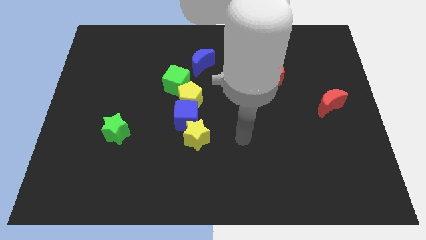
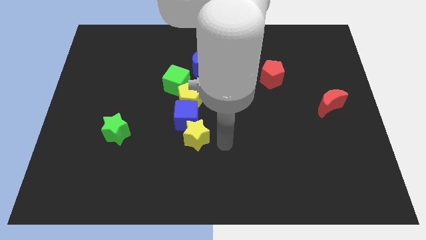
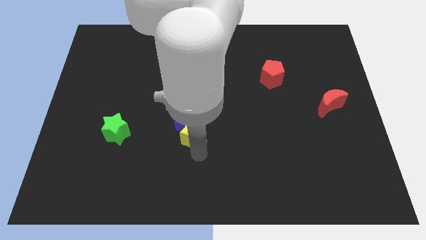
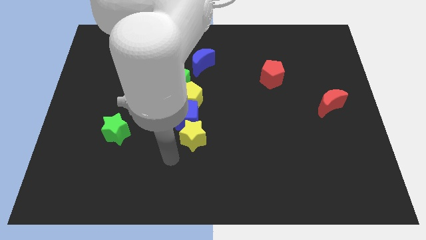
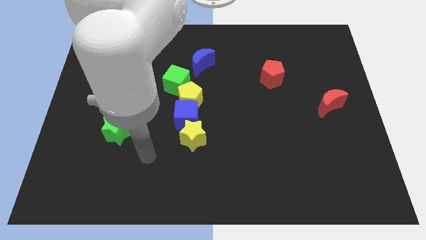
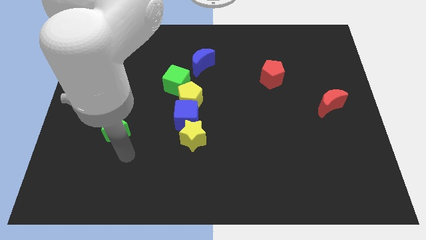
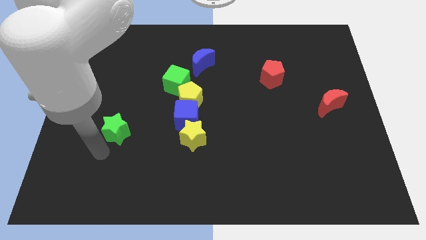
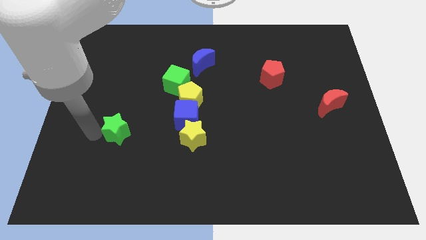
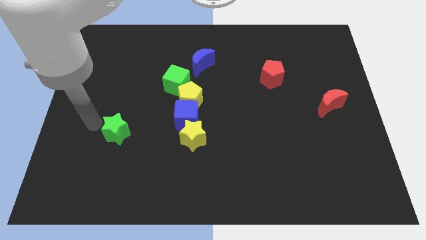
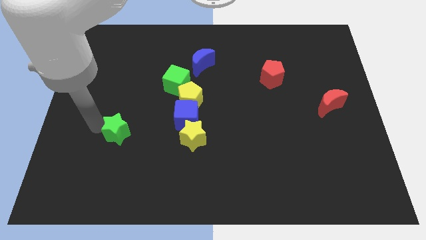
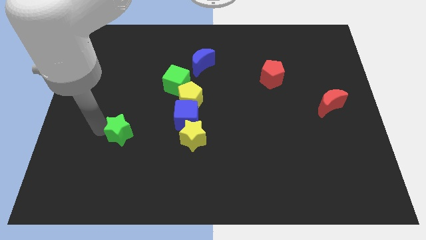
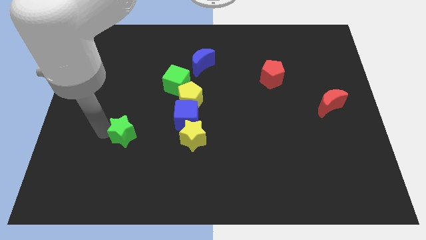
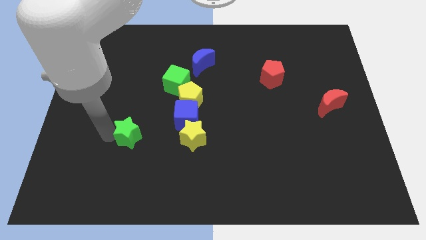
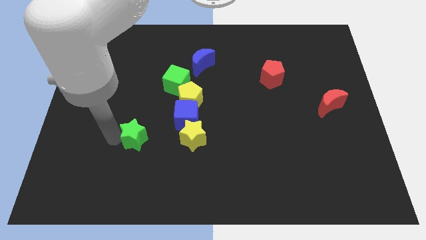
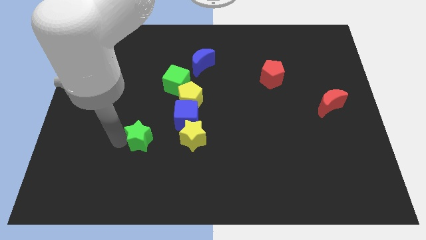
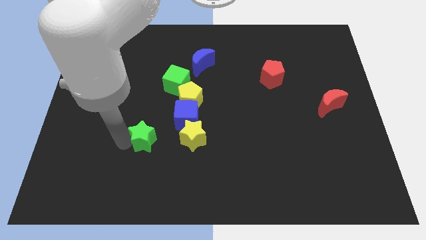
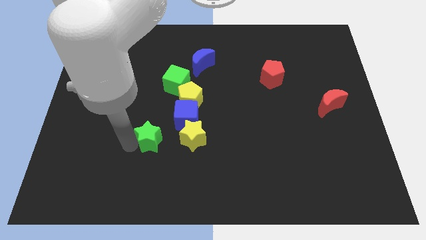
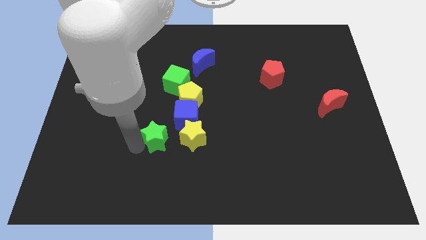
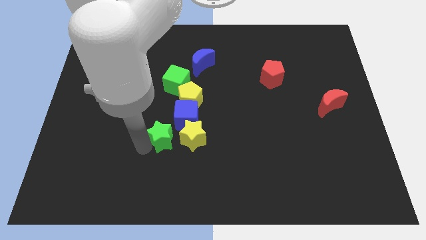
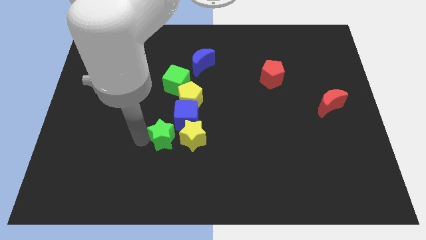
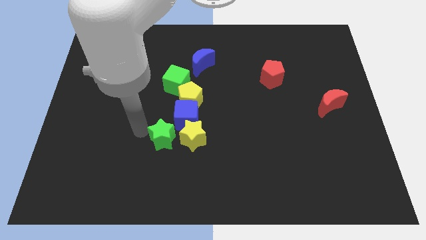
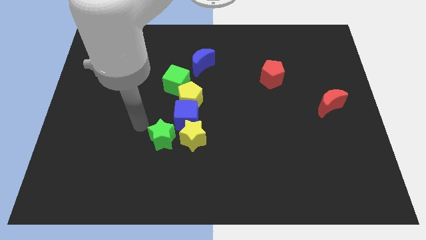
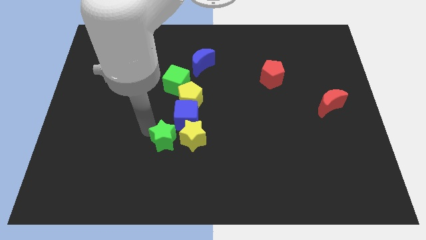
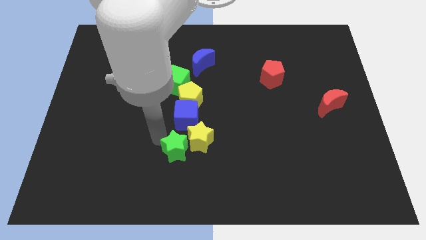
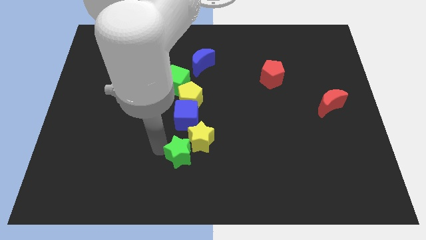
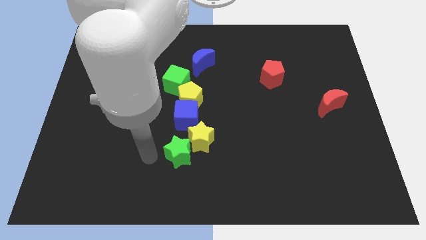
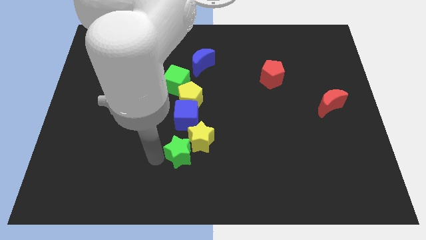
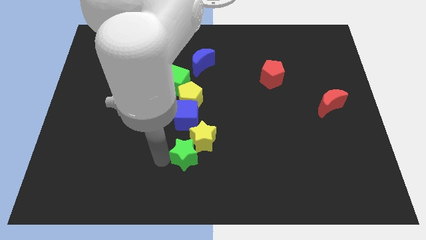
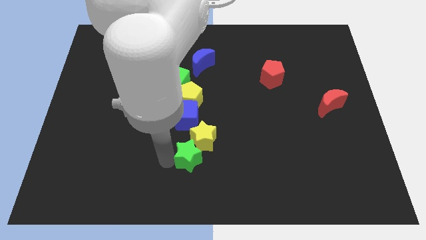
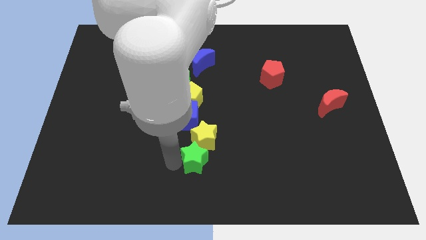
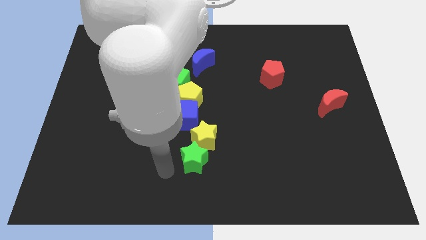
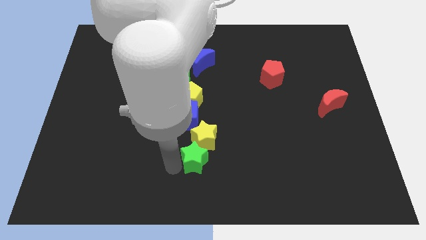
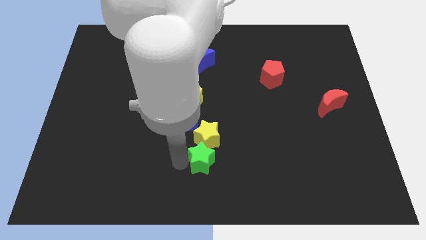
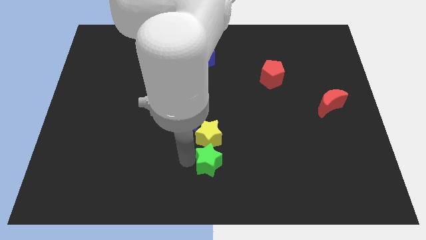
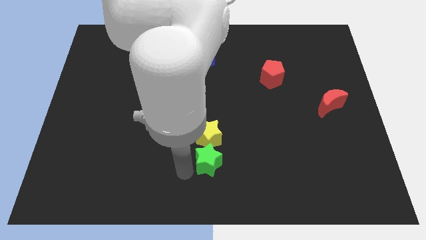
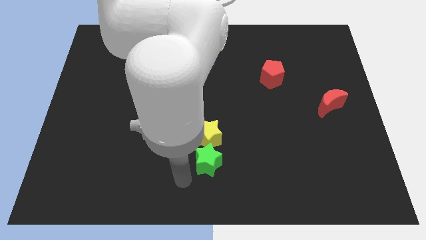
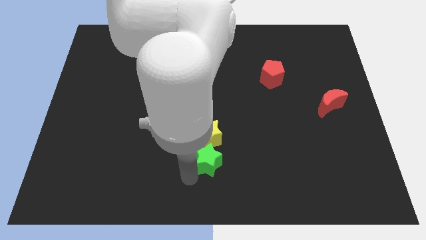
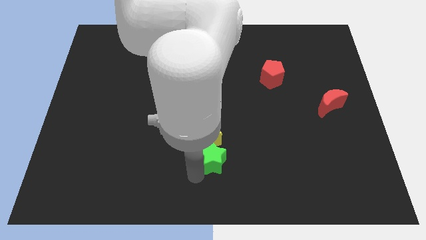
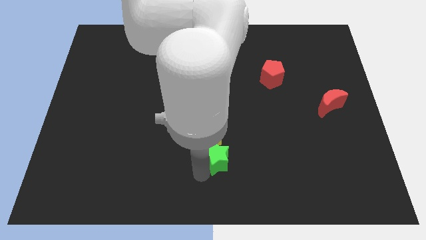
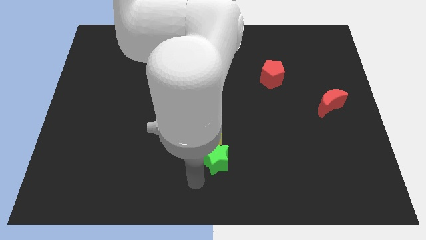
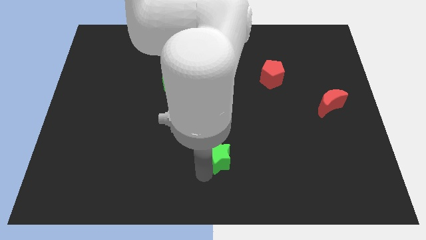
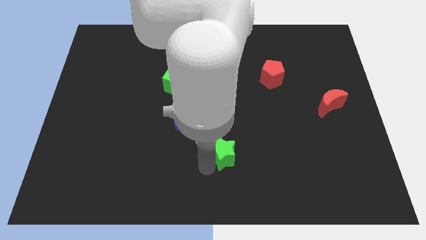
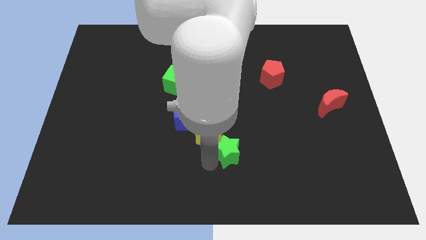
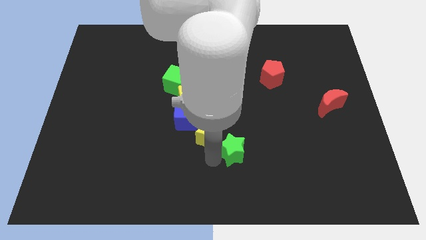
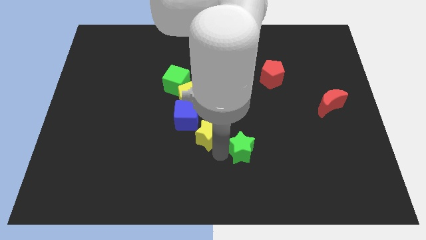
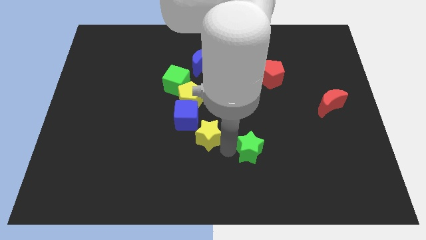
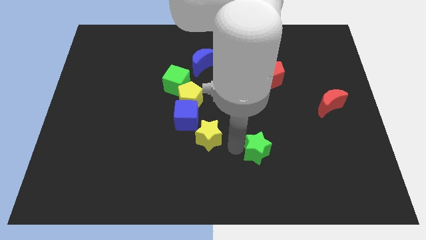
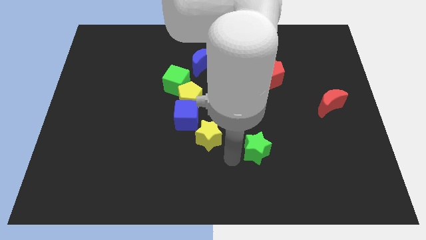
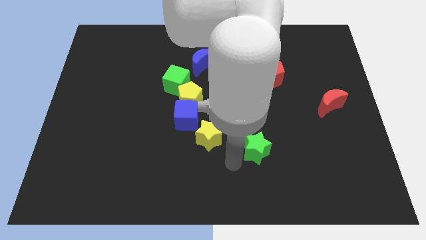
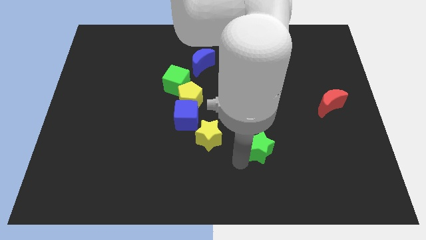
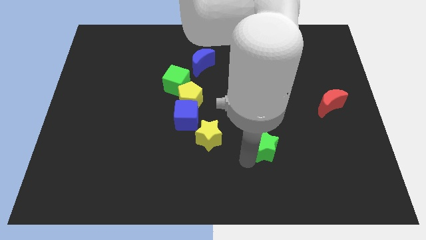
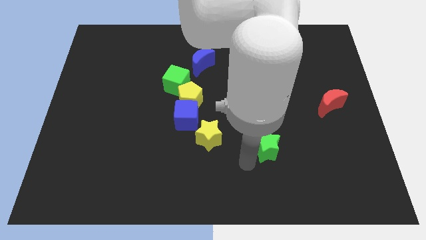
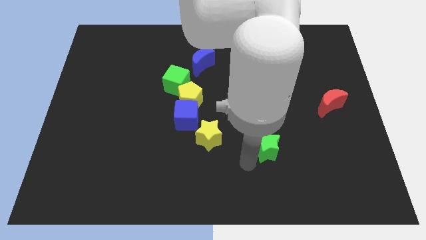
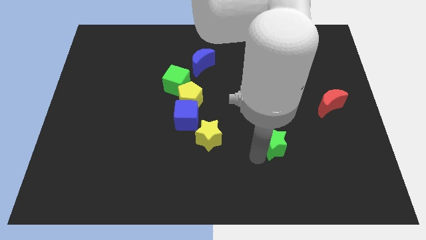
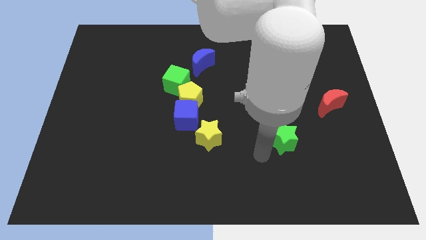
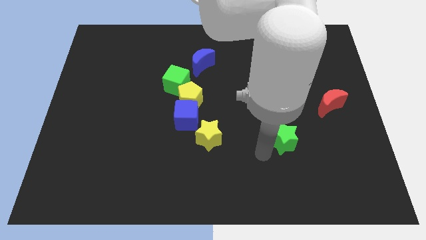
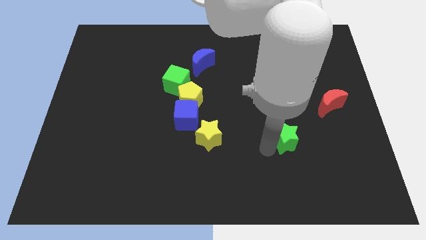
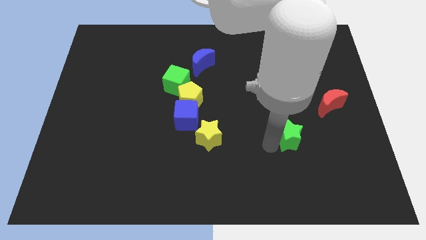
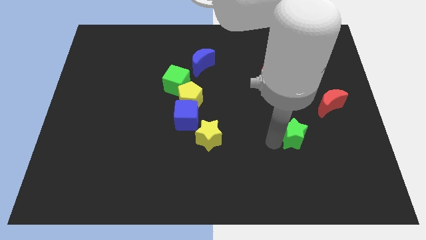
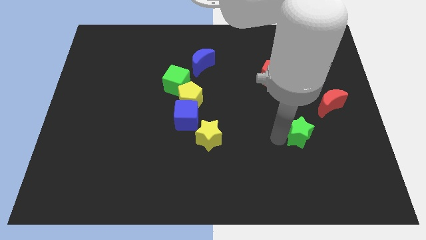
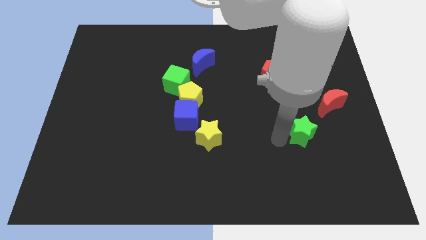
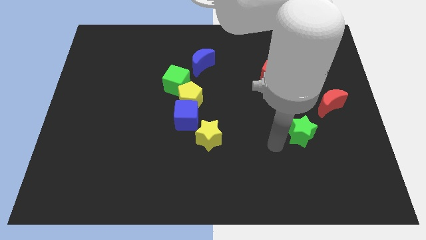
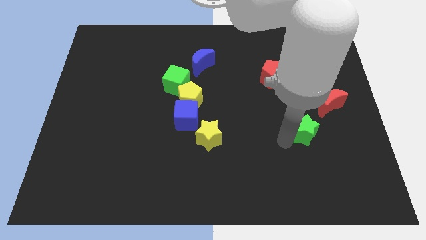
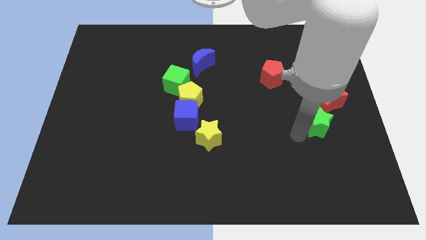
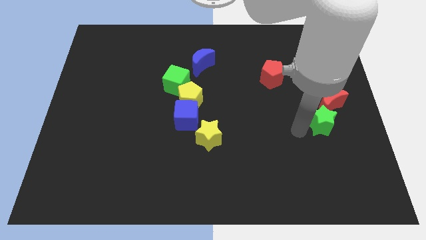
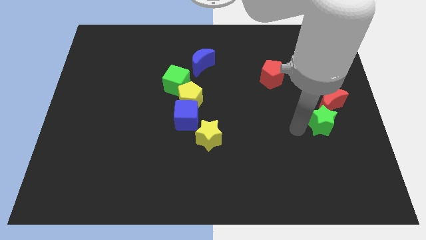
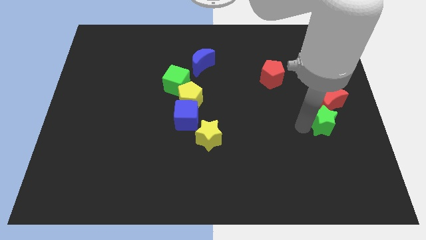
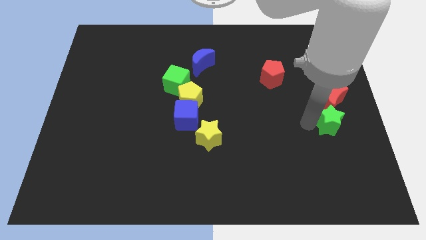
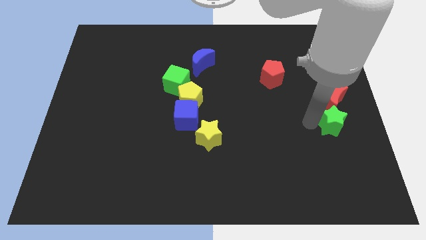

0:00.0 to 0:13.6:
slide the green star to the right side
